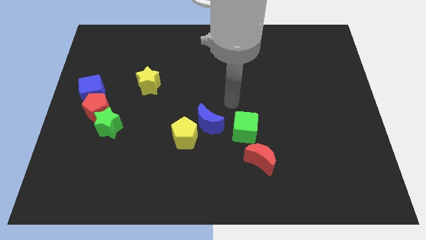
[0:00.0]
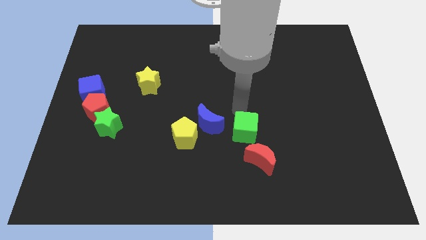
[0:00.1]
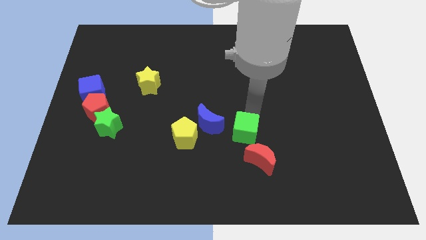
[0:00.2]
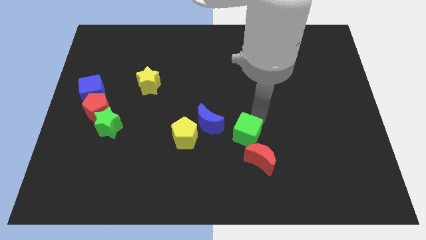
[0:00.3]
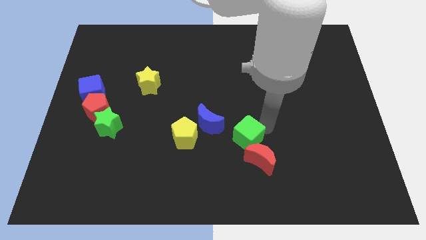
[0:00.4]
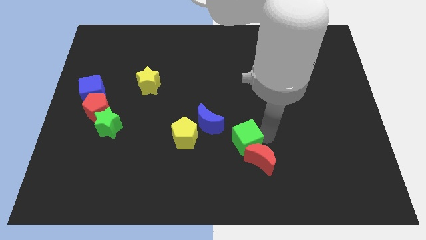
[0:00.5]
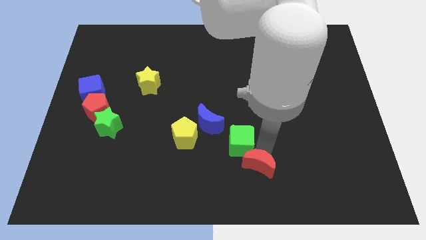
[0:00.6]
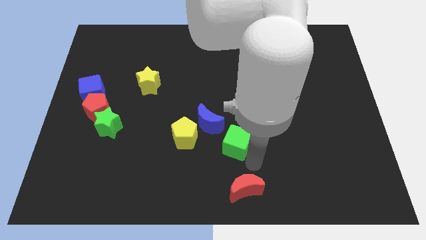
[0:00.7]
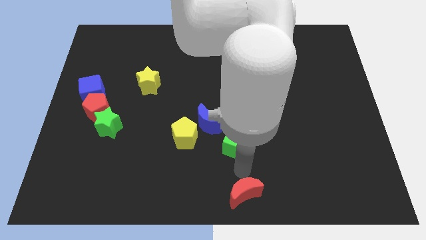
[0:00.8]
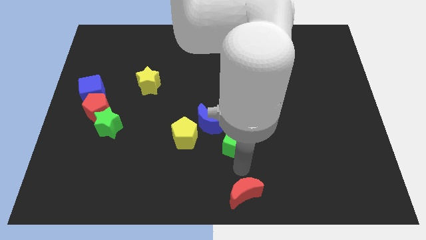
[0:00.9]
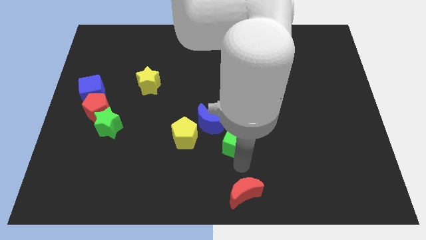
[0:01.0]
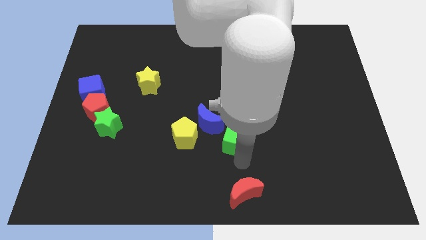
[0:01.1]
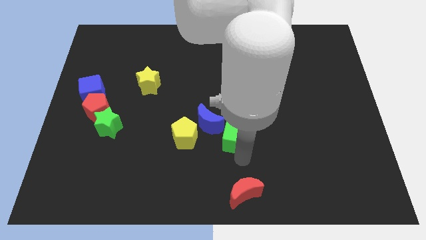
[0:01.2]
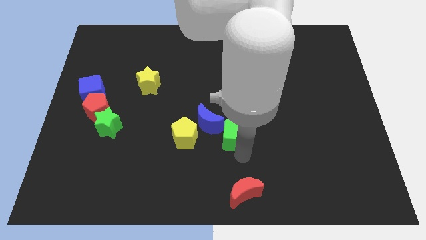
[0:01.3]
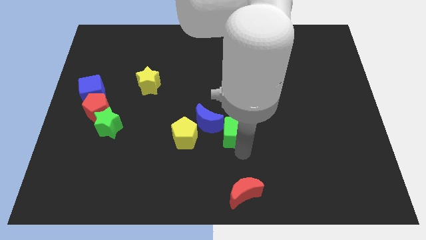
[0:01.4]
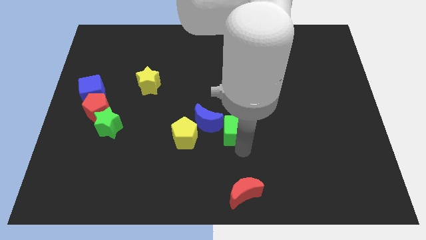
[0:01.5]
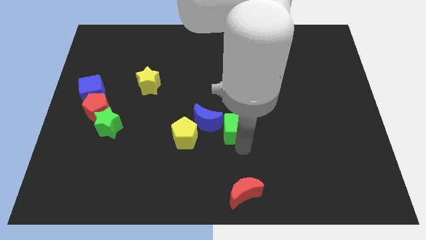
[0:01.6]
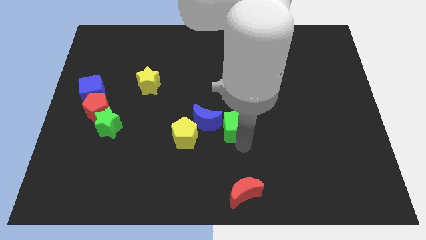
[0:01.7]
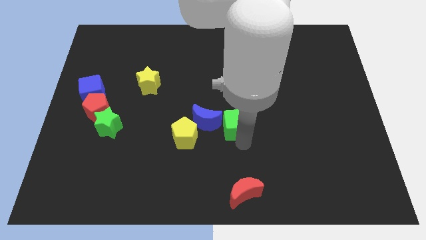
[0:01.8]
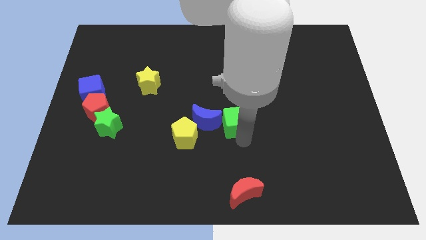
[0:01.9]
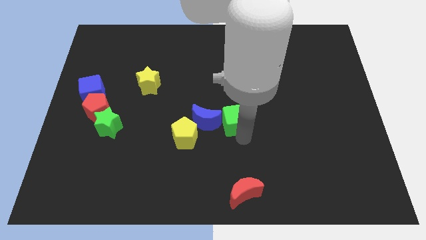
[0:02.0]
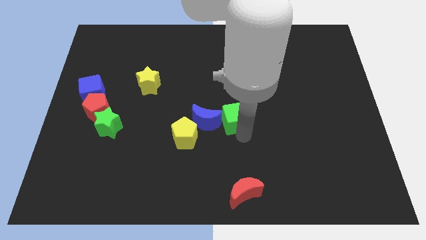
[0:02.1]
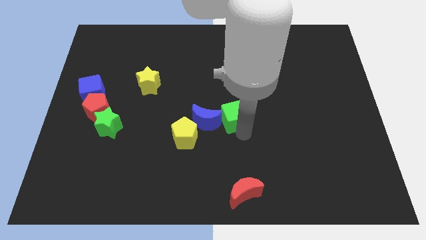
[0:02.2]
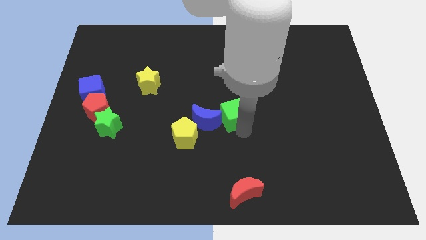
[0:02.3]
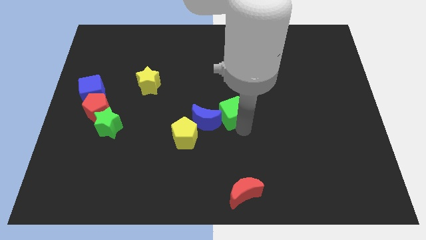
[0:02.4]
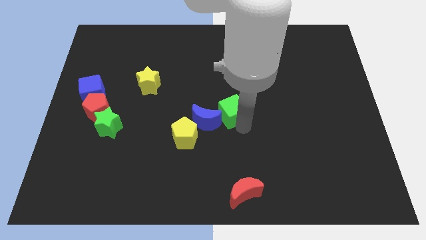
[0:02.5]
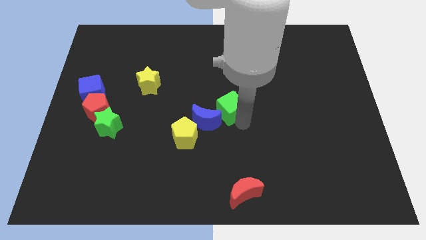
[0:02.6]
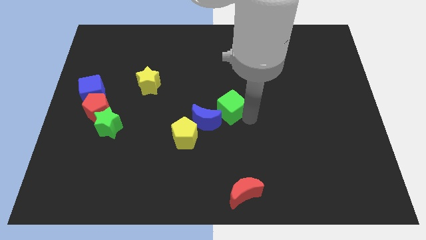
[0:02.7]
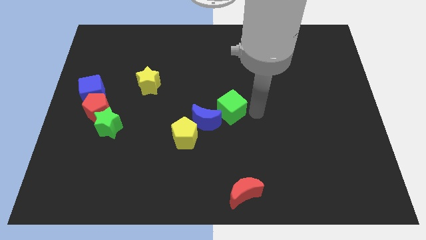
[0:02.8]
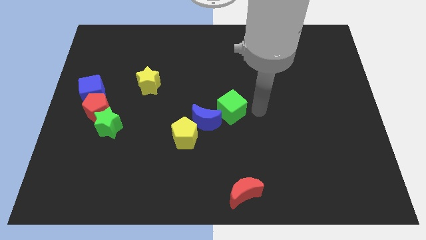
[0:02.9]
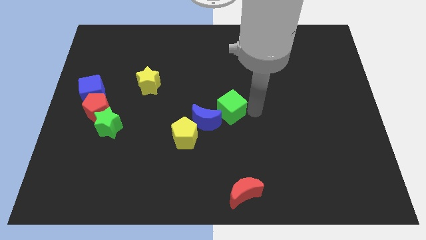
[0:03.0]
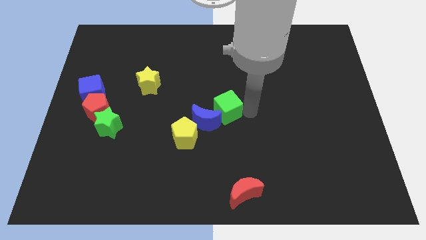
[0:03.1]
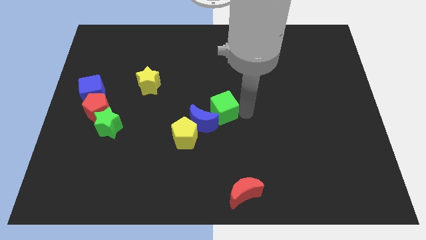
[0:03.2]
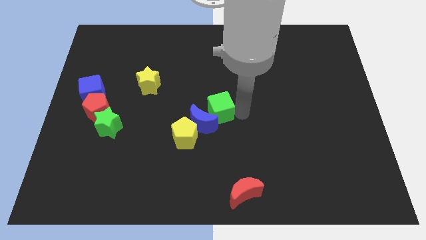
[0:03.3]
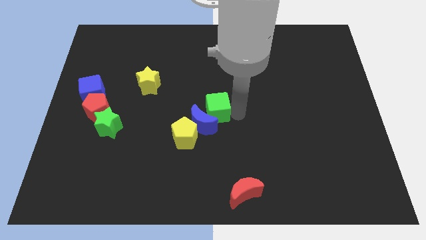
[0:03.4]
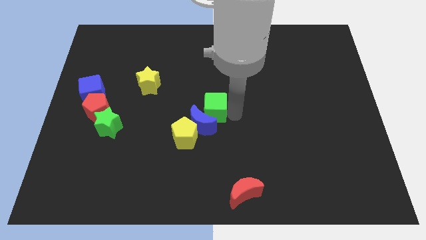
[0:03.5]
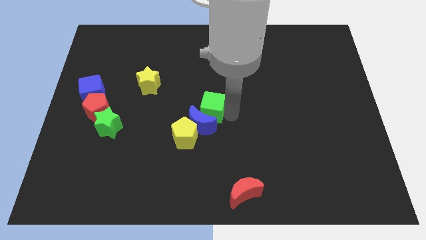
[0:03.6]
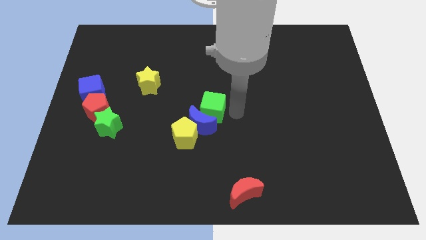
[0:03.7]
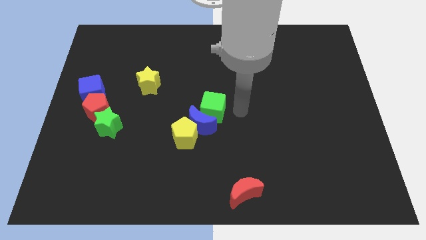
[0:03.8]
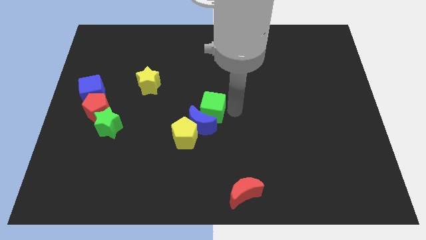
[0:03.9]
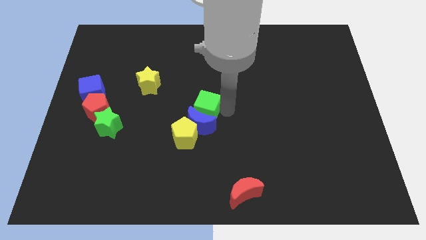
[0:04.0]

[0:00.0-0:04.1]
slightly push the green cube to the left

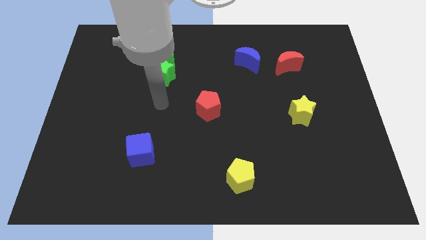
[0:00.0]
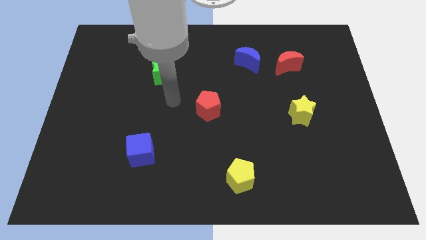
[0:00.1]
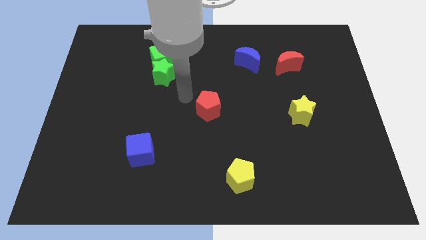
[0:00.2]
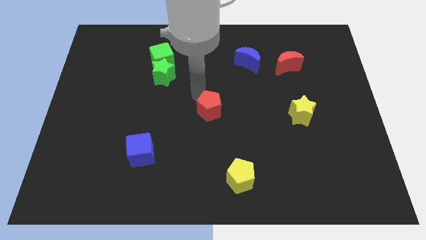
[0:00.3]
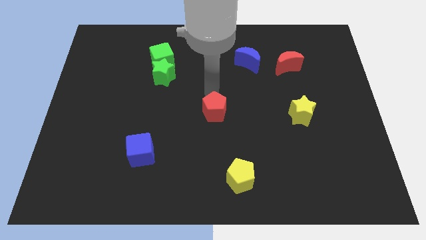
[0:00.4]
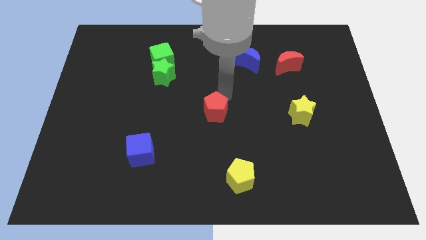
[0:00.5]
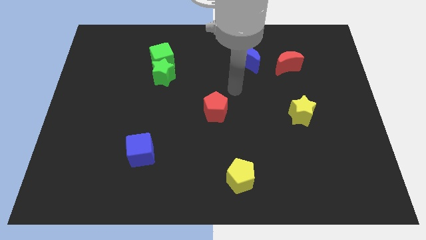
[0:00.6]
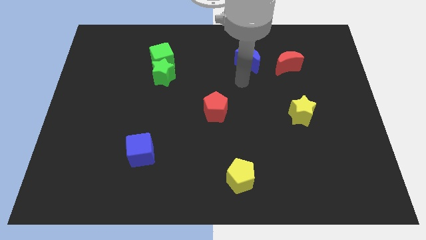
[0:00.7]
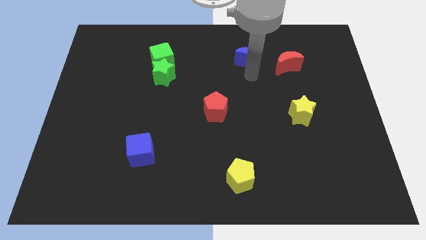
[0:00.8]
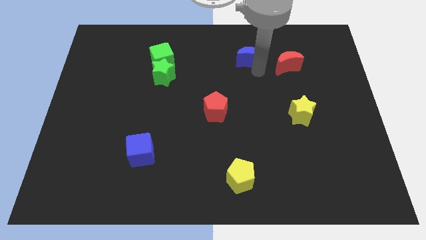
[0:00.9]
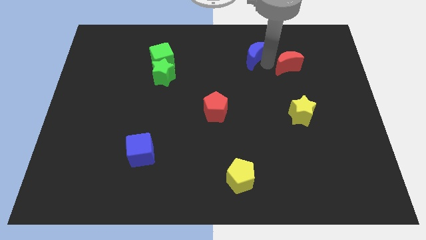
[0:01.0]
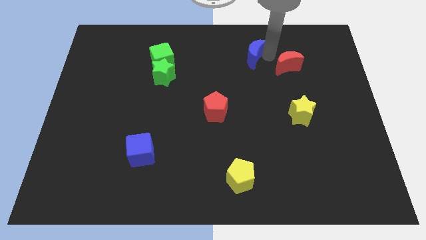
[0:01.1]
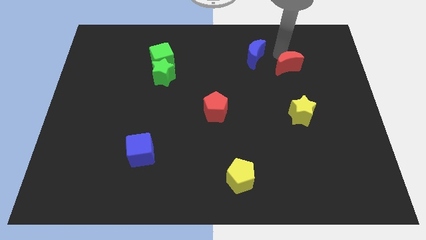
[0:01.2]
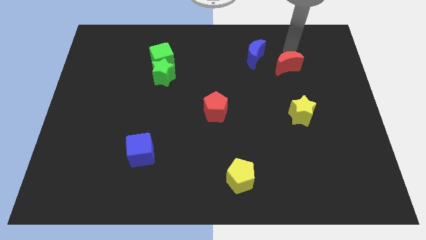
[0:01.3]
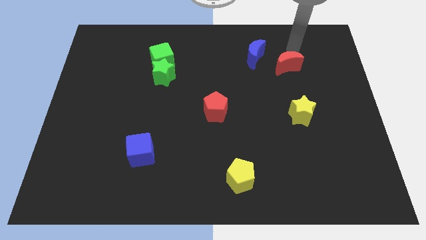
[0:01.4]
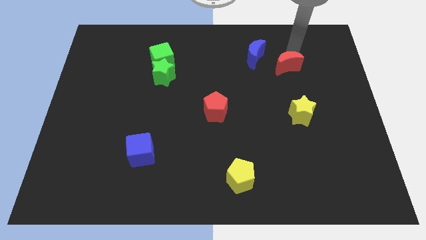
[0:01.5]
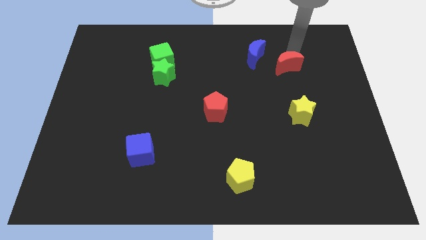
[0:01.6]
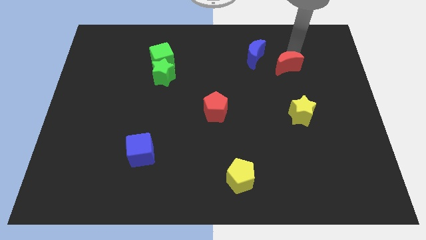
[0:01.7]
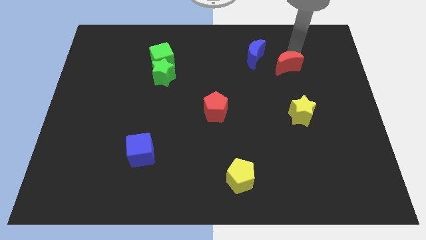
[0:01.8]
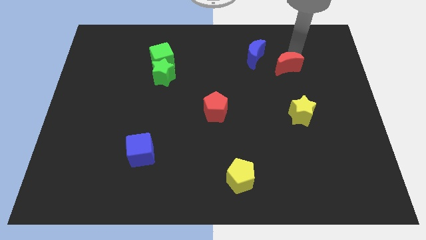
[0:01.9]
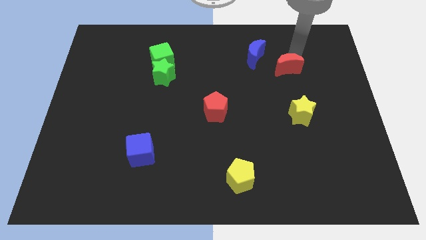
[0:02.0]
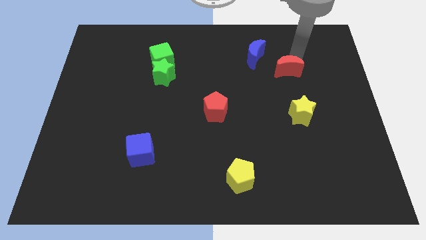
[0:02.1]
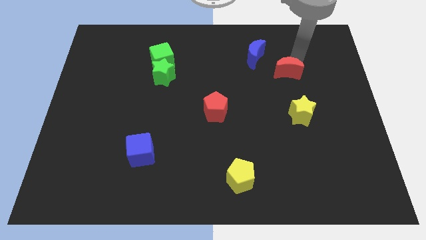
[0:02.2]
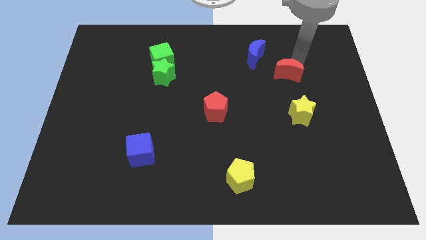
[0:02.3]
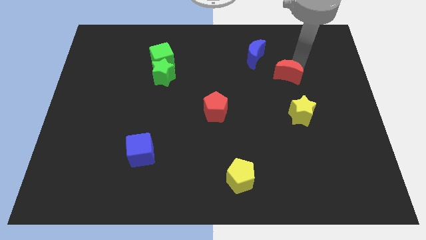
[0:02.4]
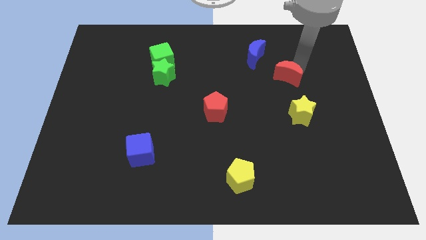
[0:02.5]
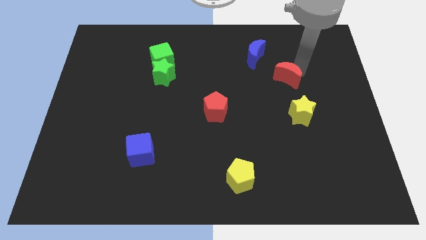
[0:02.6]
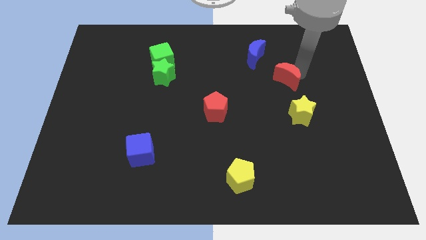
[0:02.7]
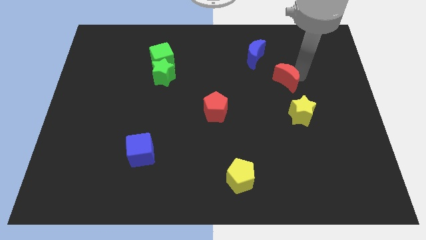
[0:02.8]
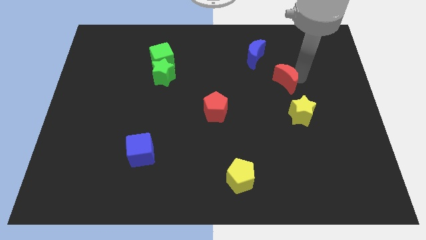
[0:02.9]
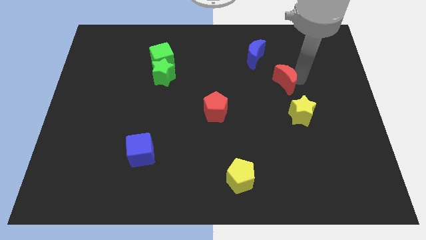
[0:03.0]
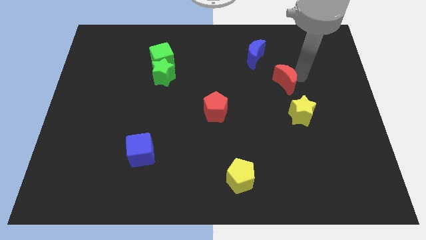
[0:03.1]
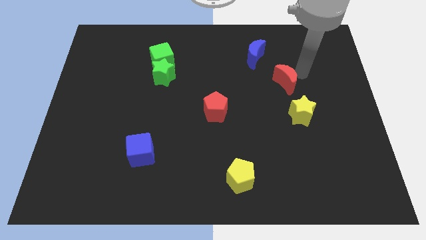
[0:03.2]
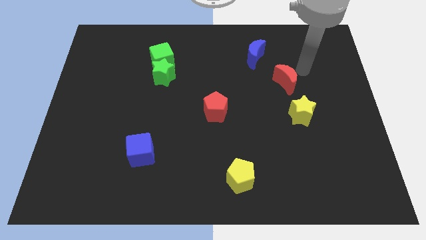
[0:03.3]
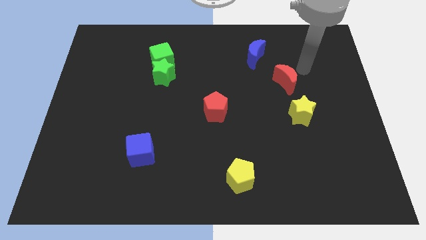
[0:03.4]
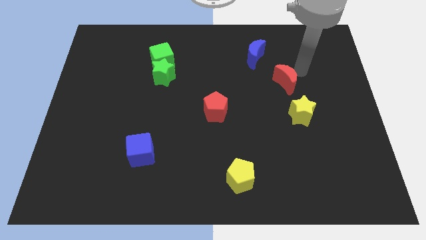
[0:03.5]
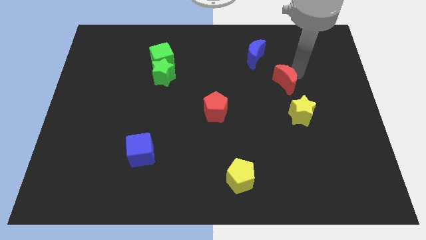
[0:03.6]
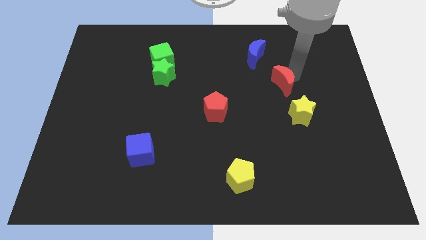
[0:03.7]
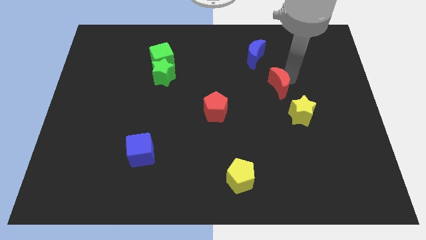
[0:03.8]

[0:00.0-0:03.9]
slightly slide the red moon downwards

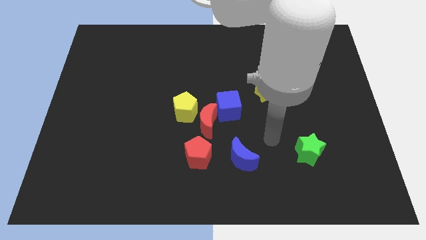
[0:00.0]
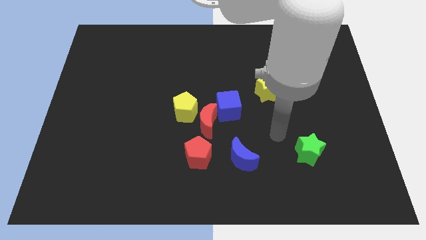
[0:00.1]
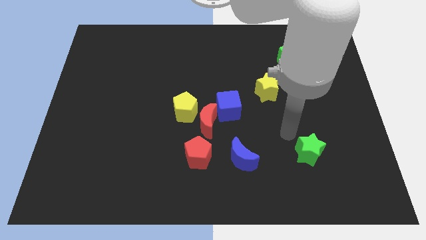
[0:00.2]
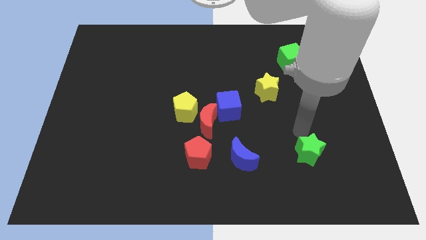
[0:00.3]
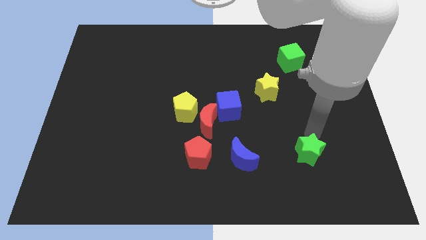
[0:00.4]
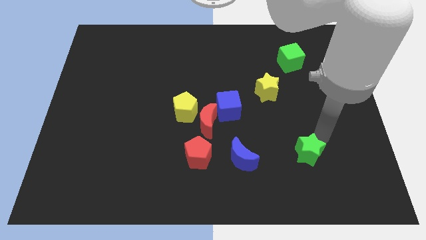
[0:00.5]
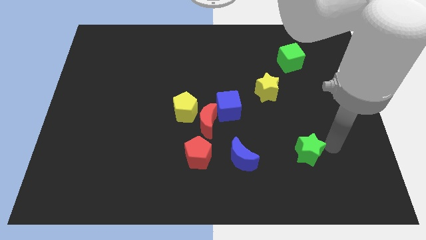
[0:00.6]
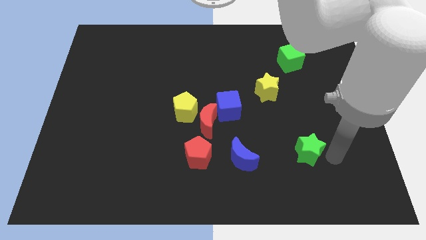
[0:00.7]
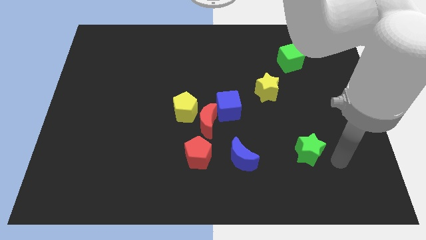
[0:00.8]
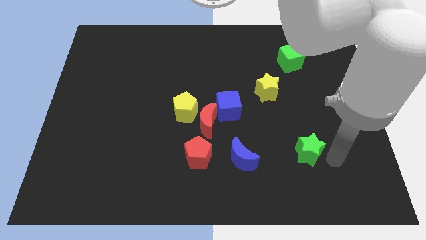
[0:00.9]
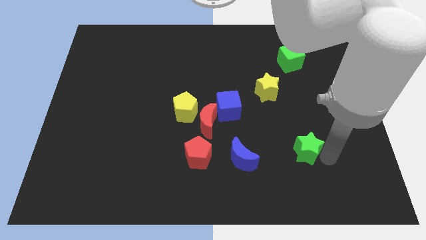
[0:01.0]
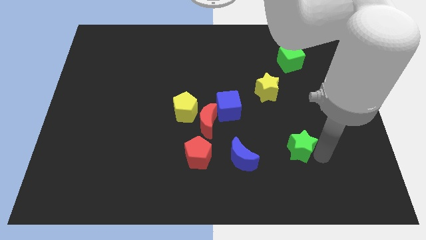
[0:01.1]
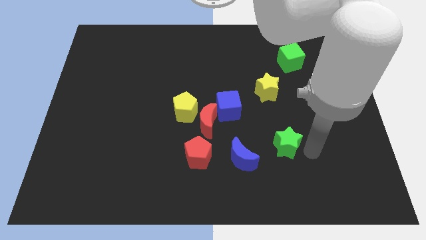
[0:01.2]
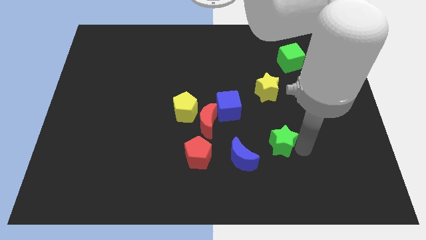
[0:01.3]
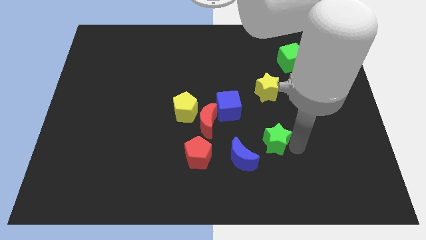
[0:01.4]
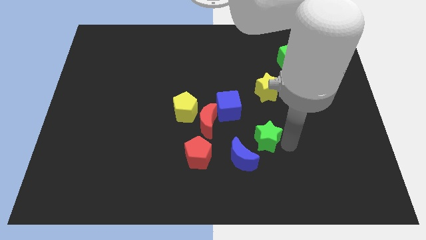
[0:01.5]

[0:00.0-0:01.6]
move the green star left a little
